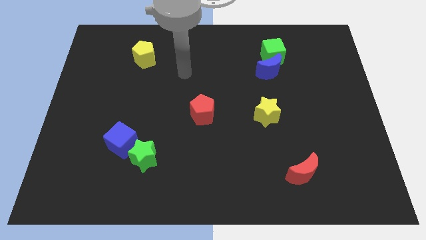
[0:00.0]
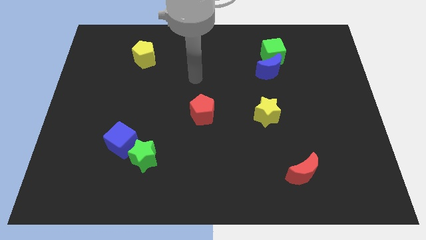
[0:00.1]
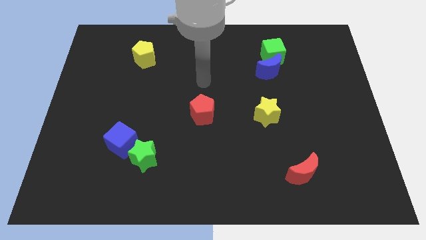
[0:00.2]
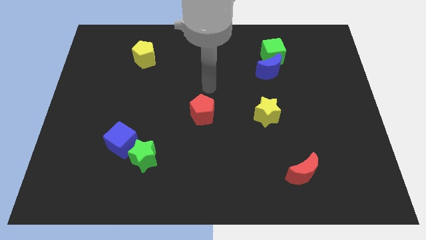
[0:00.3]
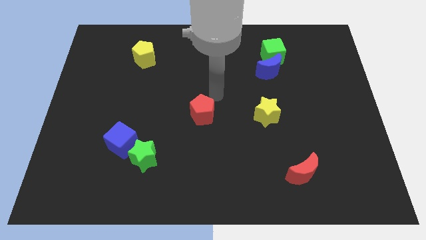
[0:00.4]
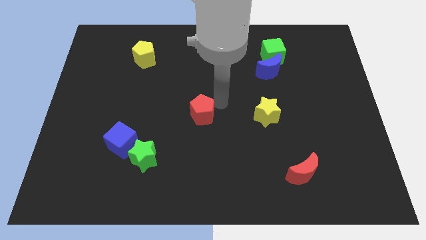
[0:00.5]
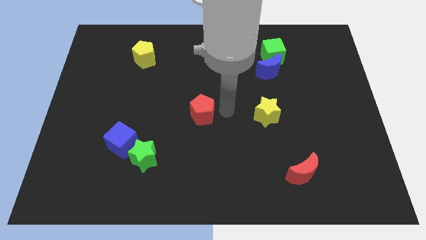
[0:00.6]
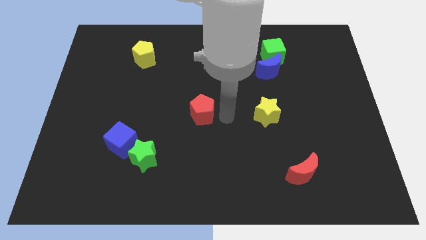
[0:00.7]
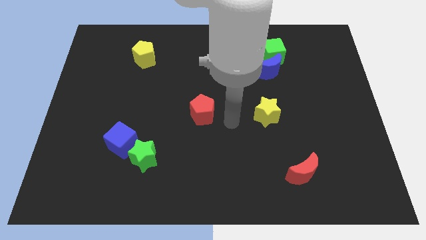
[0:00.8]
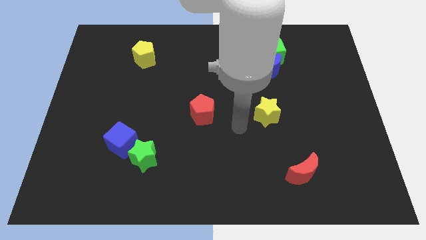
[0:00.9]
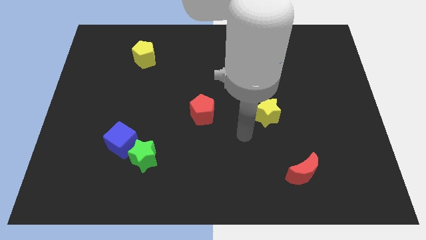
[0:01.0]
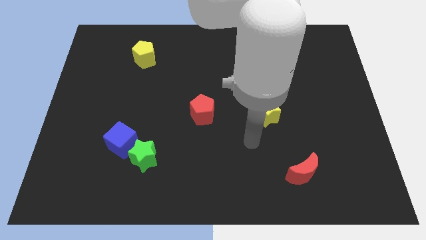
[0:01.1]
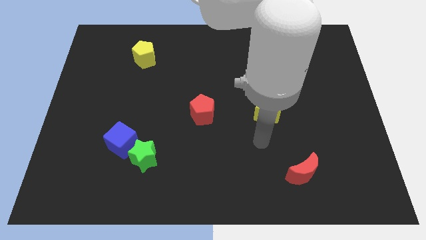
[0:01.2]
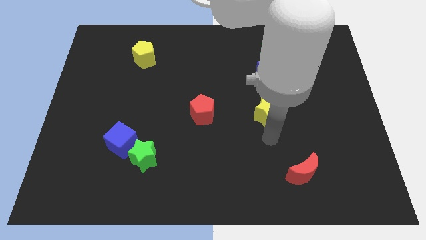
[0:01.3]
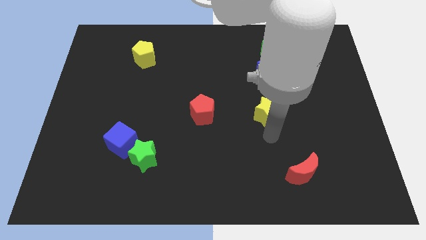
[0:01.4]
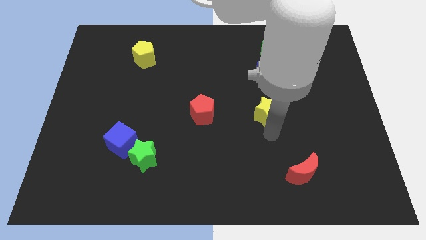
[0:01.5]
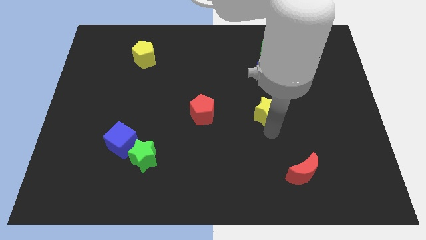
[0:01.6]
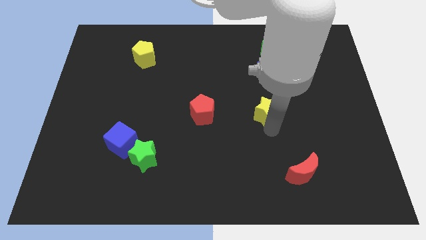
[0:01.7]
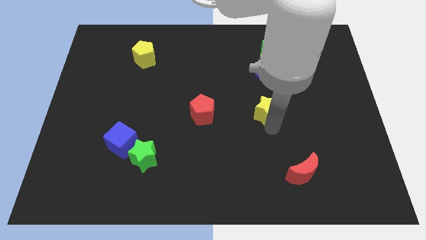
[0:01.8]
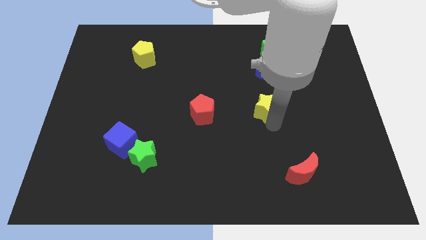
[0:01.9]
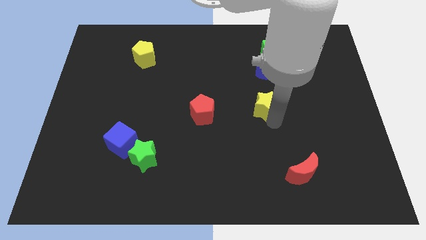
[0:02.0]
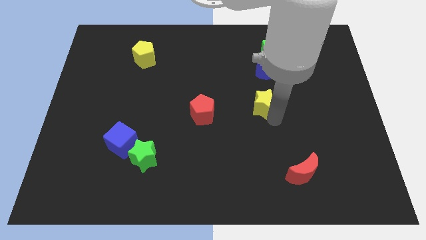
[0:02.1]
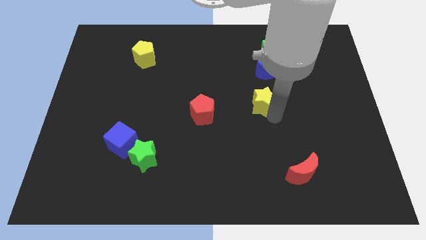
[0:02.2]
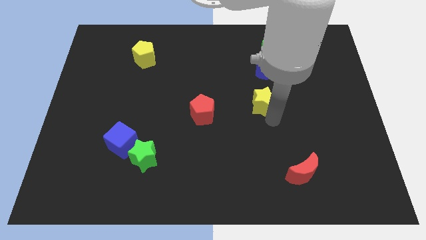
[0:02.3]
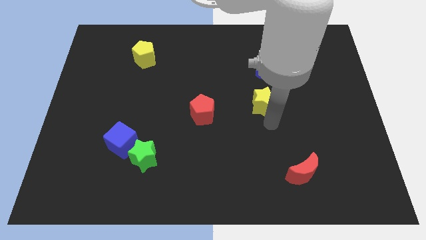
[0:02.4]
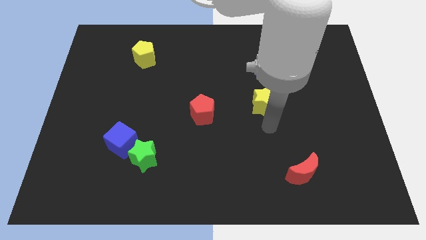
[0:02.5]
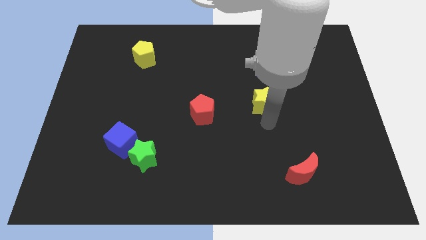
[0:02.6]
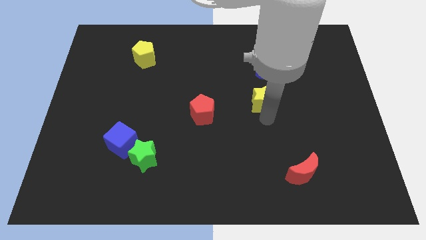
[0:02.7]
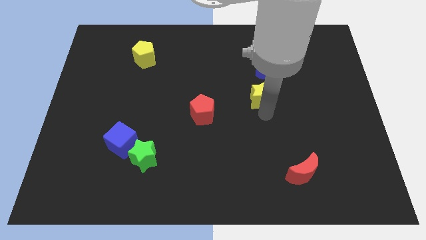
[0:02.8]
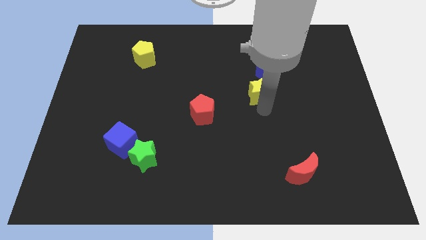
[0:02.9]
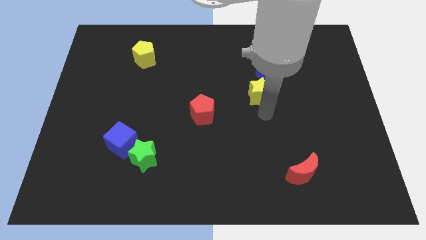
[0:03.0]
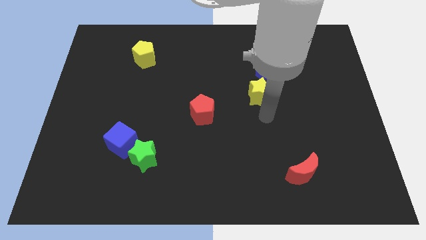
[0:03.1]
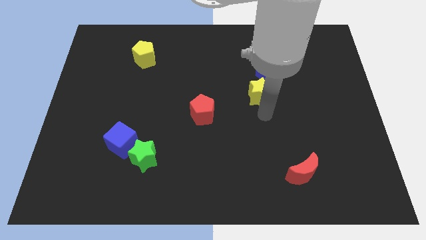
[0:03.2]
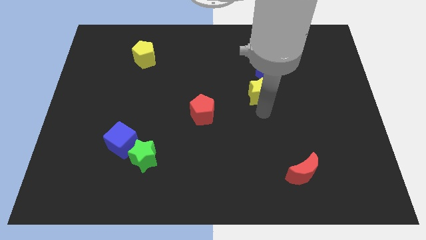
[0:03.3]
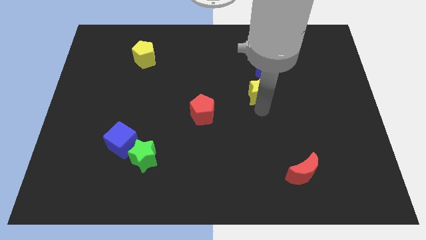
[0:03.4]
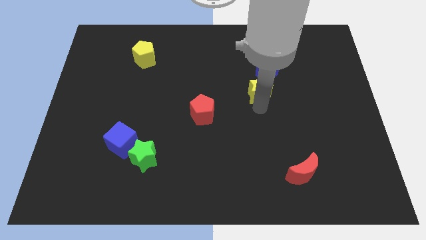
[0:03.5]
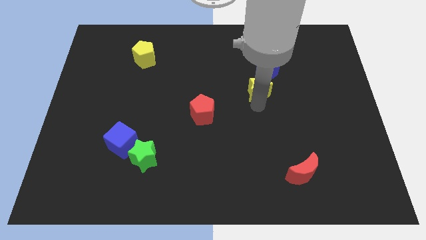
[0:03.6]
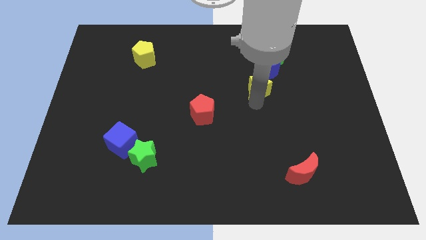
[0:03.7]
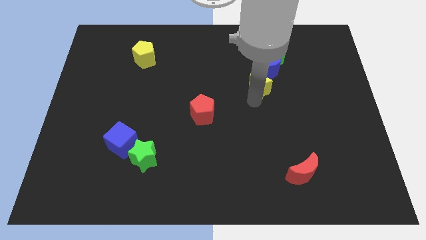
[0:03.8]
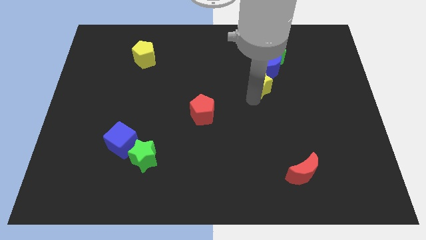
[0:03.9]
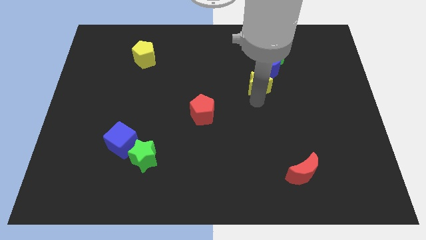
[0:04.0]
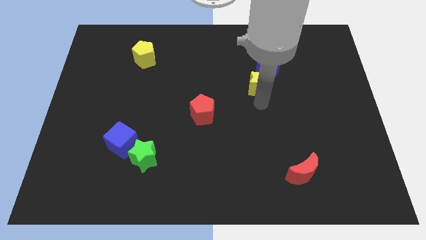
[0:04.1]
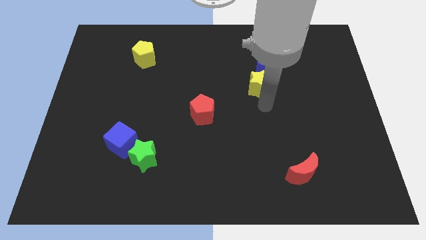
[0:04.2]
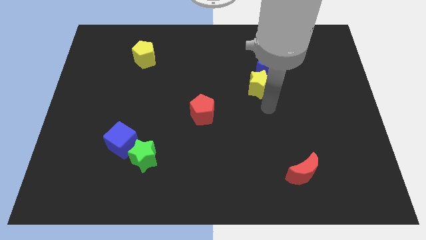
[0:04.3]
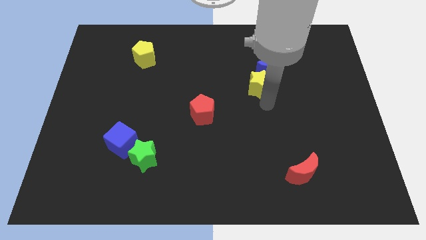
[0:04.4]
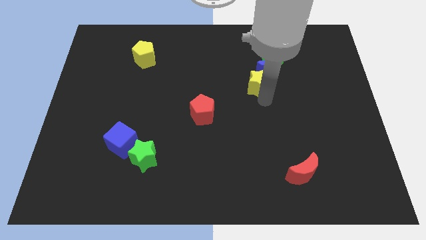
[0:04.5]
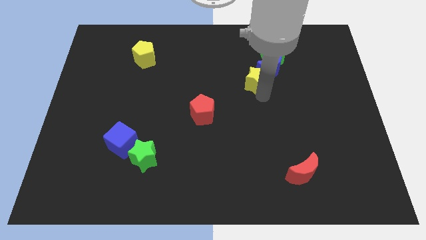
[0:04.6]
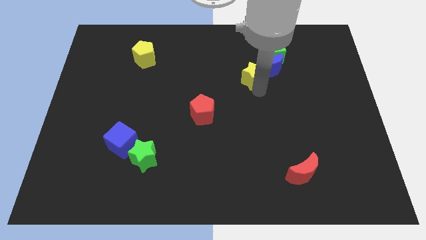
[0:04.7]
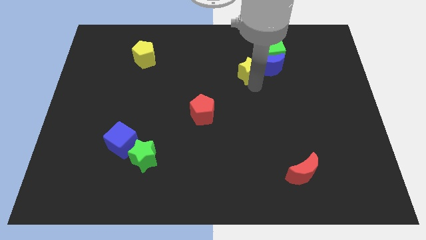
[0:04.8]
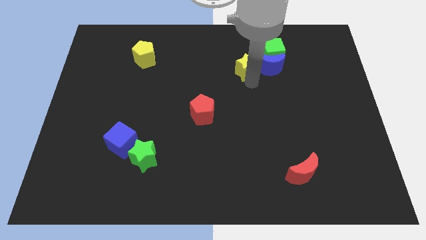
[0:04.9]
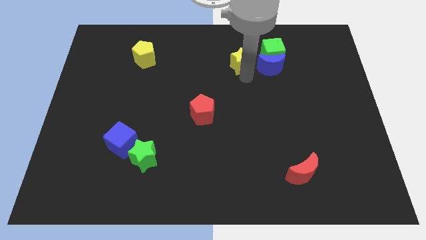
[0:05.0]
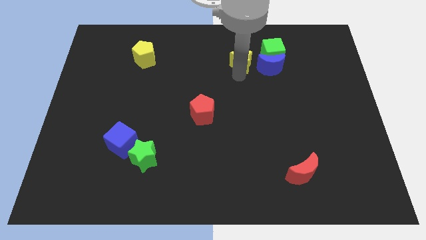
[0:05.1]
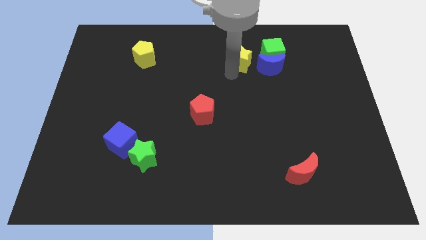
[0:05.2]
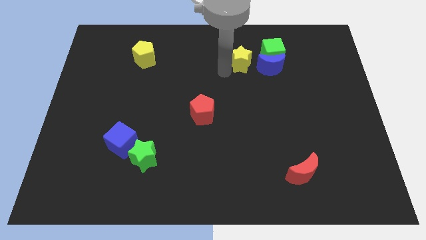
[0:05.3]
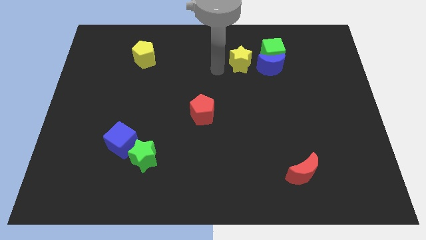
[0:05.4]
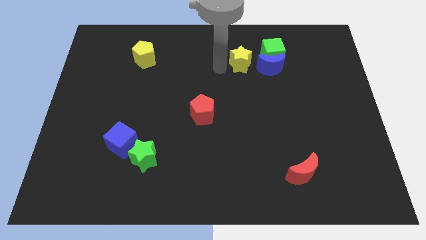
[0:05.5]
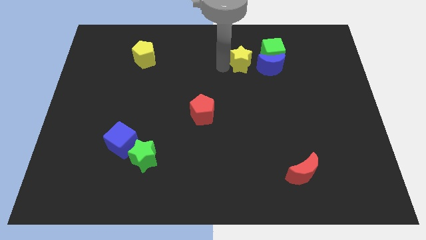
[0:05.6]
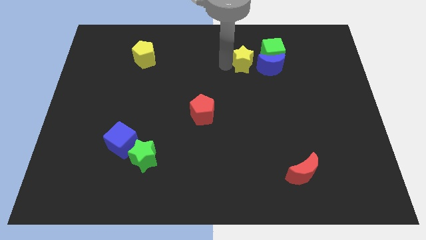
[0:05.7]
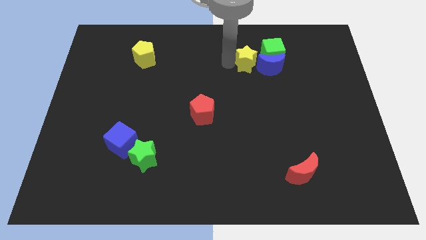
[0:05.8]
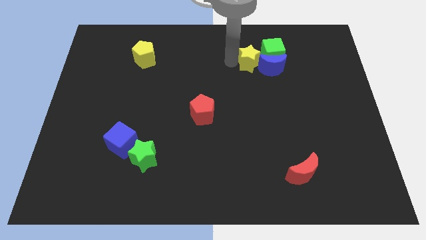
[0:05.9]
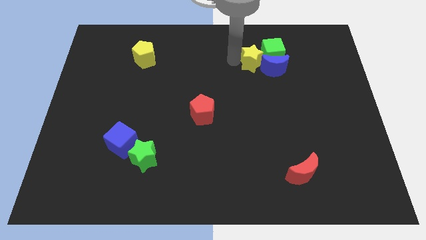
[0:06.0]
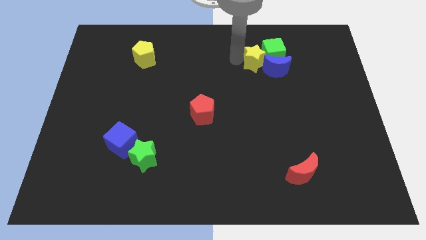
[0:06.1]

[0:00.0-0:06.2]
move the yellow star towards the green cube

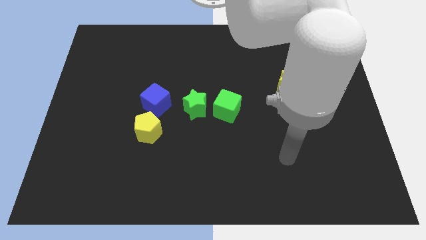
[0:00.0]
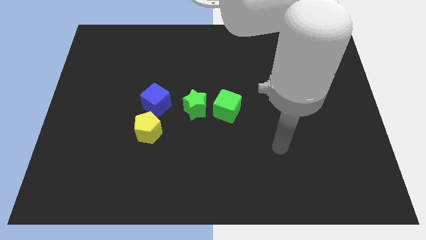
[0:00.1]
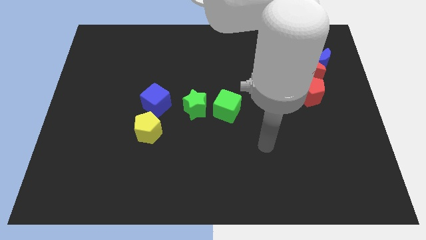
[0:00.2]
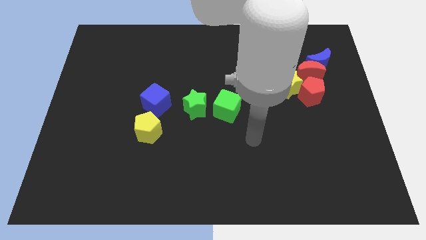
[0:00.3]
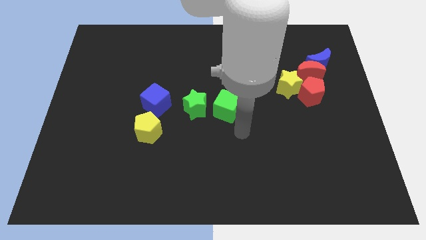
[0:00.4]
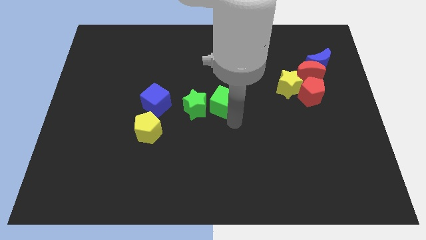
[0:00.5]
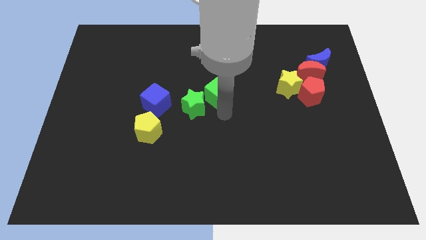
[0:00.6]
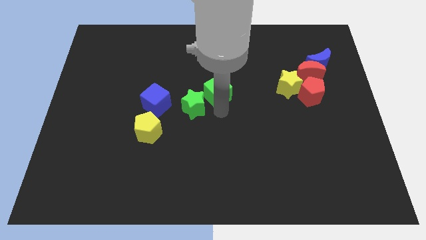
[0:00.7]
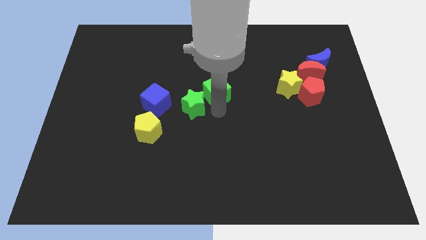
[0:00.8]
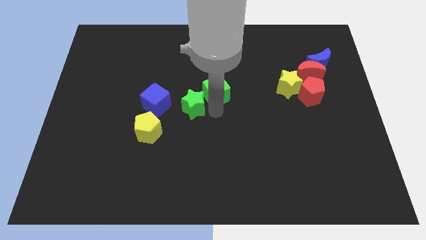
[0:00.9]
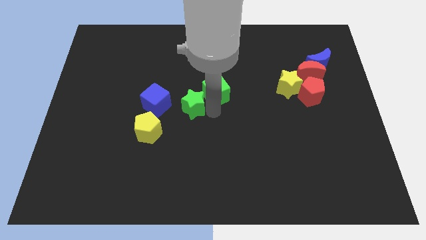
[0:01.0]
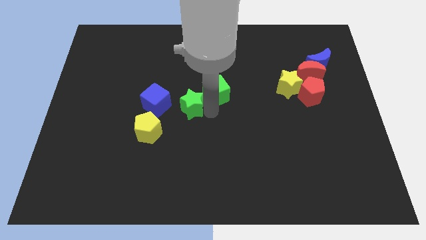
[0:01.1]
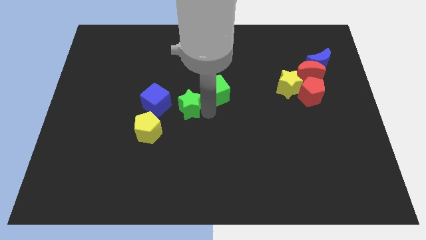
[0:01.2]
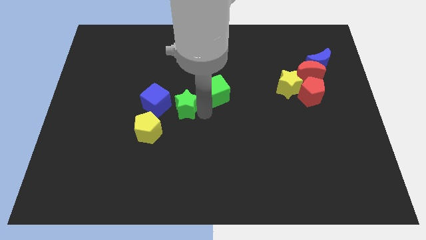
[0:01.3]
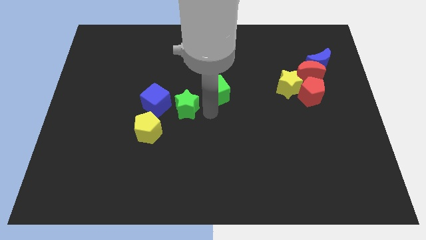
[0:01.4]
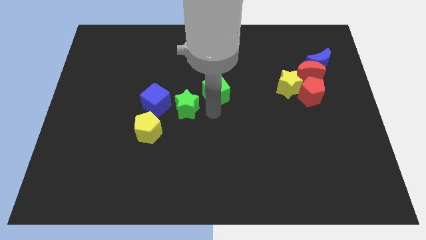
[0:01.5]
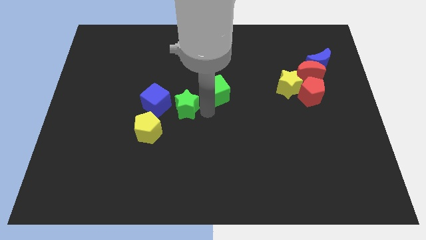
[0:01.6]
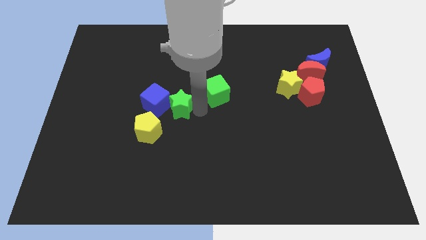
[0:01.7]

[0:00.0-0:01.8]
push the green star close to the blue cube
